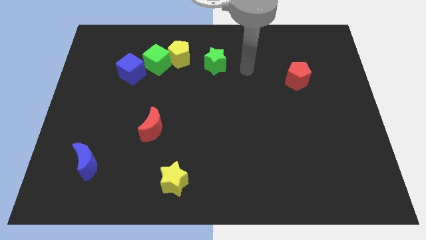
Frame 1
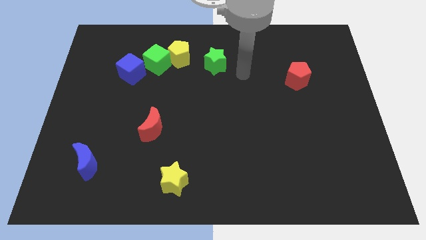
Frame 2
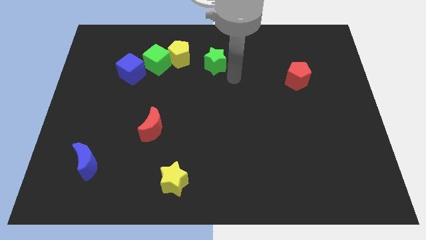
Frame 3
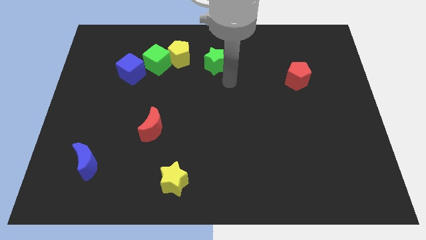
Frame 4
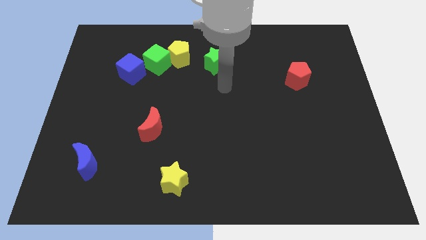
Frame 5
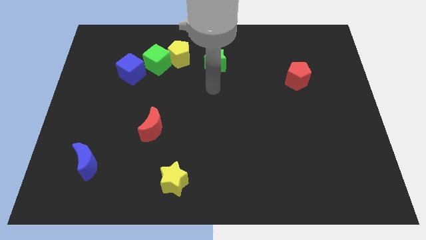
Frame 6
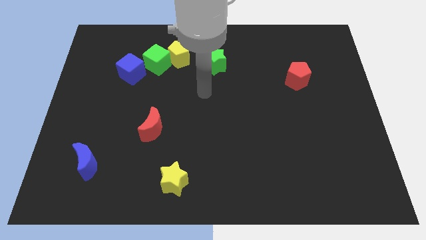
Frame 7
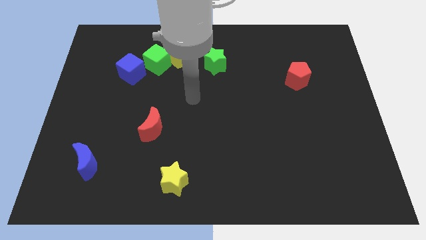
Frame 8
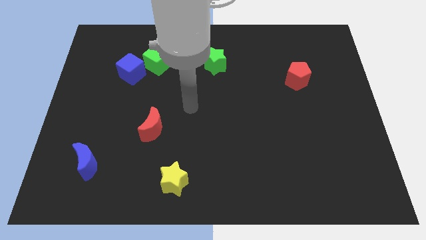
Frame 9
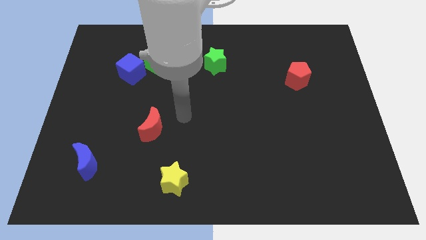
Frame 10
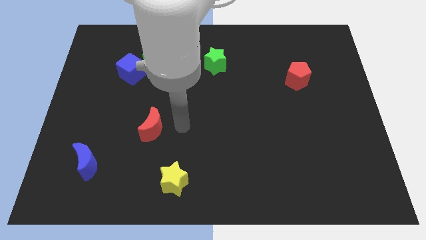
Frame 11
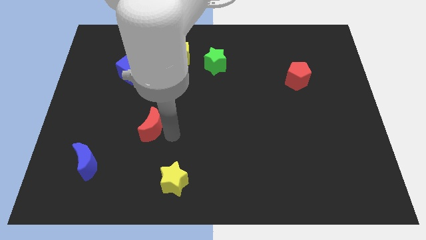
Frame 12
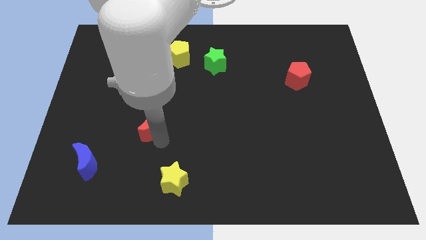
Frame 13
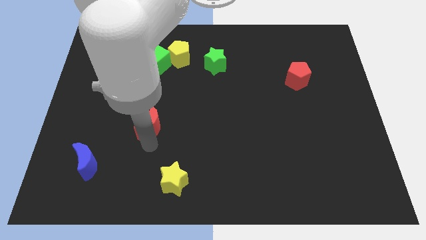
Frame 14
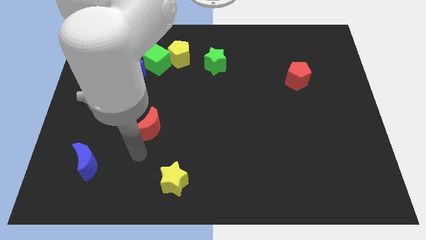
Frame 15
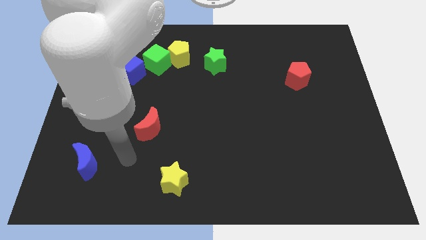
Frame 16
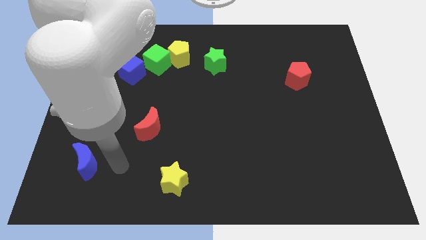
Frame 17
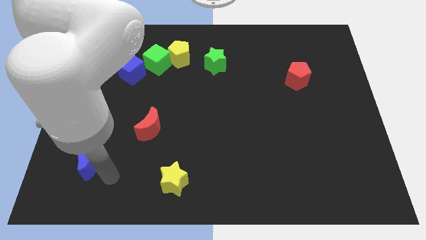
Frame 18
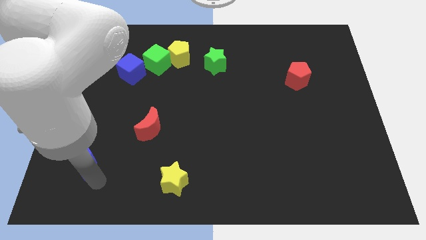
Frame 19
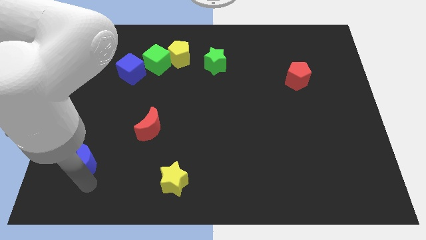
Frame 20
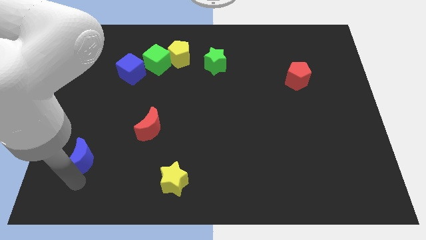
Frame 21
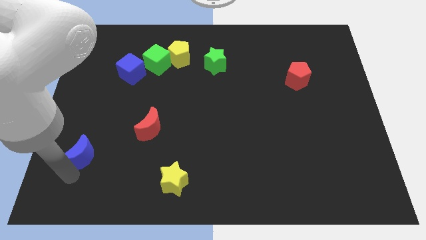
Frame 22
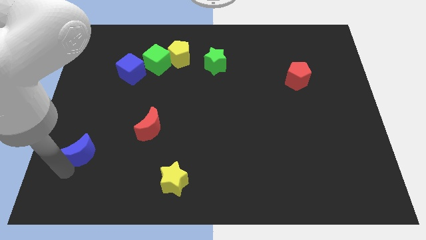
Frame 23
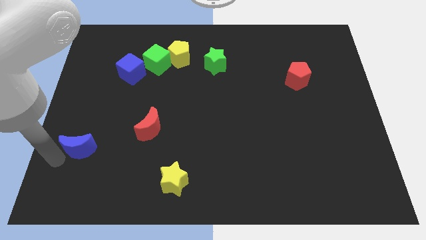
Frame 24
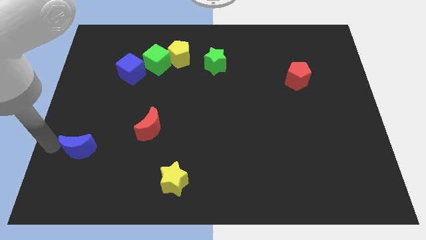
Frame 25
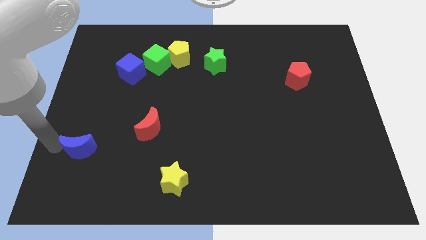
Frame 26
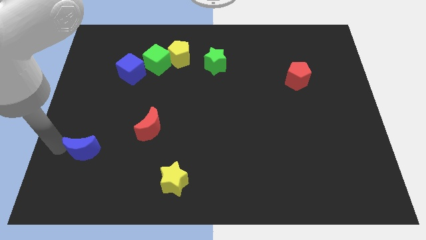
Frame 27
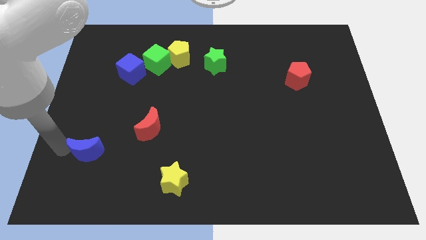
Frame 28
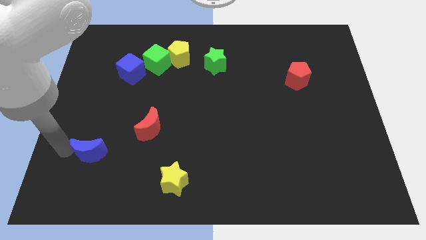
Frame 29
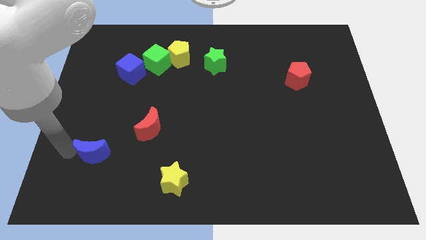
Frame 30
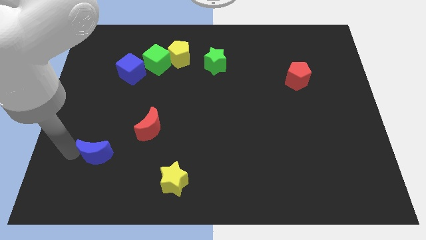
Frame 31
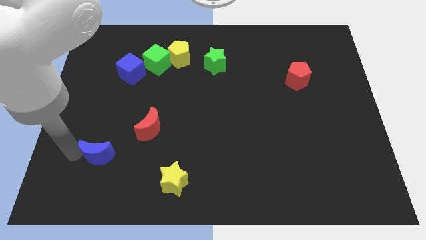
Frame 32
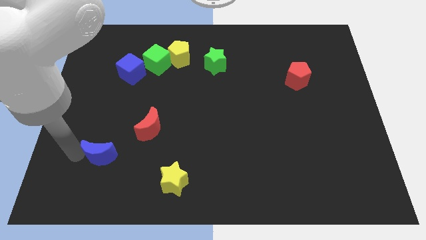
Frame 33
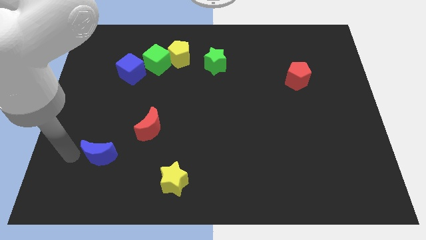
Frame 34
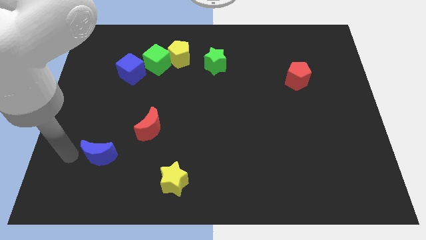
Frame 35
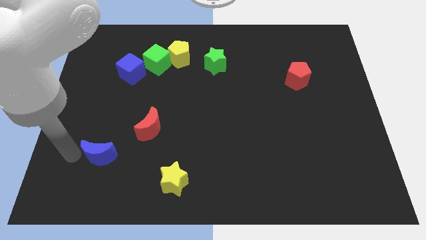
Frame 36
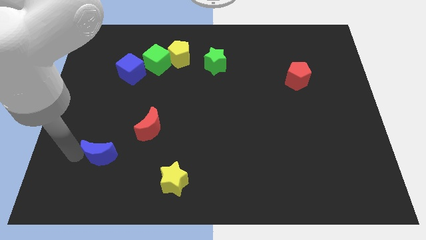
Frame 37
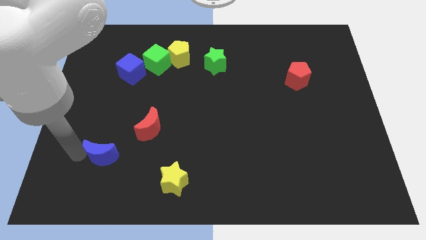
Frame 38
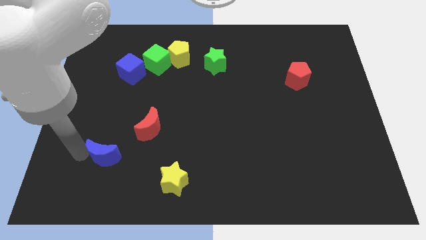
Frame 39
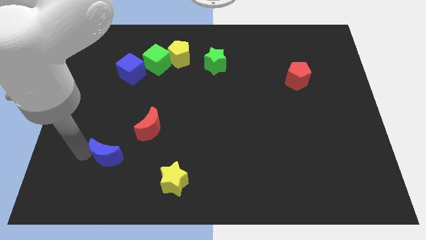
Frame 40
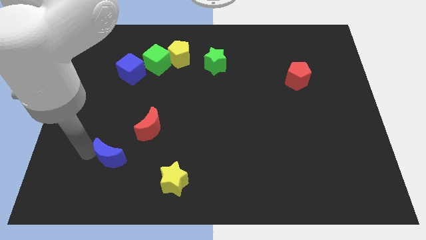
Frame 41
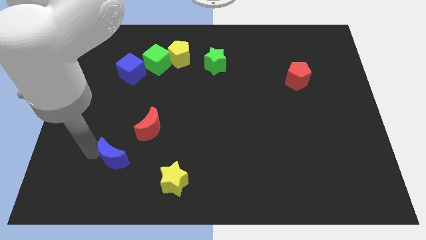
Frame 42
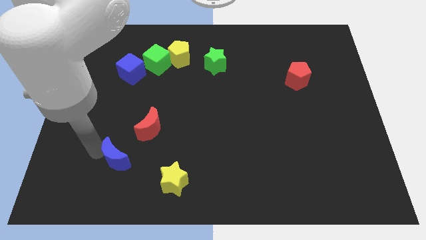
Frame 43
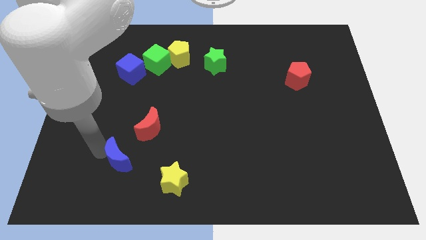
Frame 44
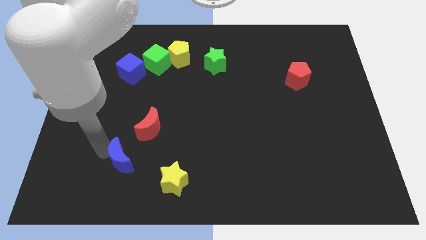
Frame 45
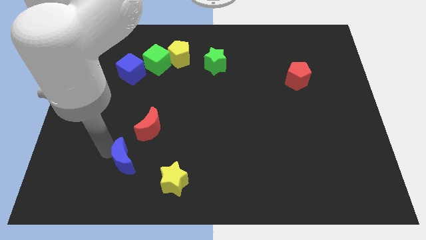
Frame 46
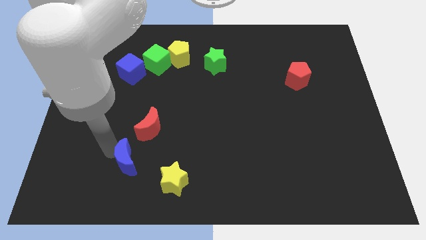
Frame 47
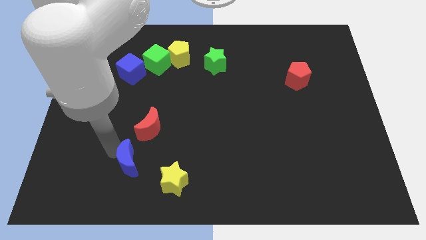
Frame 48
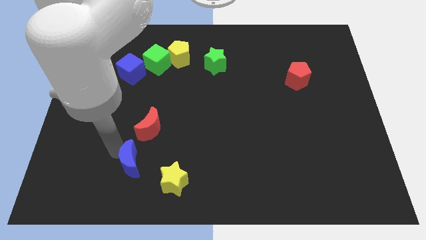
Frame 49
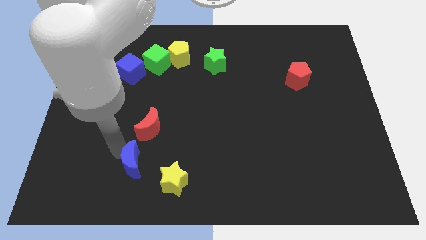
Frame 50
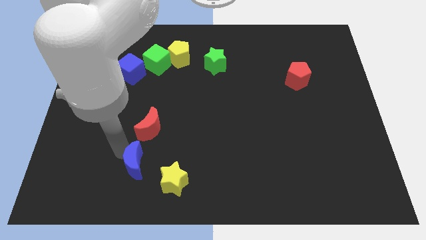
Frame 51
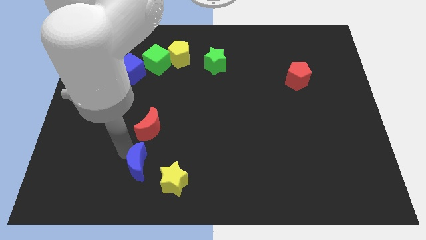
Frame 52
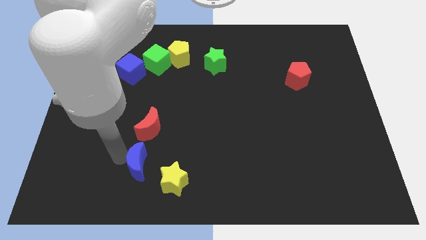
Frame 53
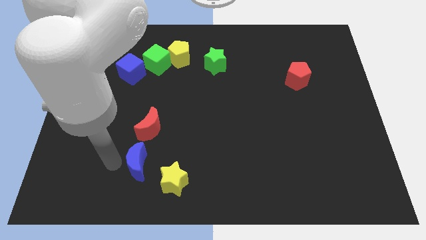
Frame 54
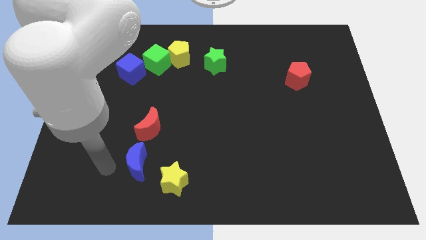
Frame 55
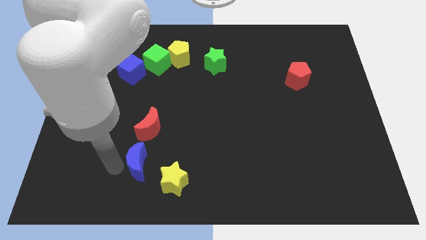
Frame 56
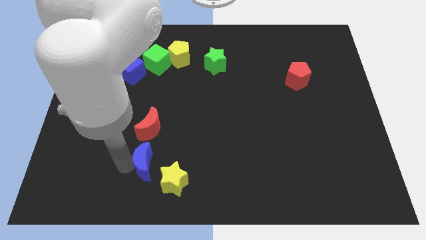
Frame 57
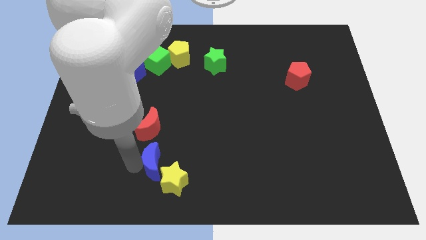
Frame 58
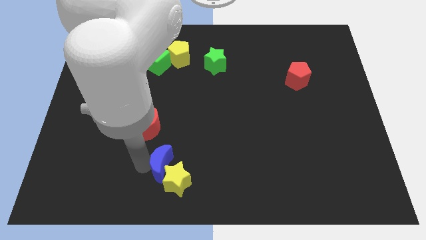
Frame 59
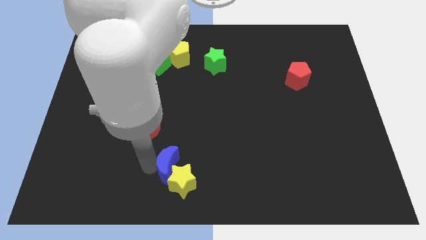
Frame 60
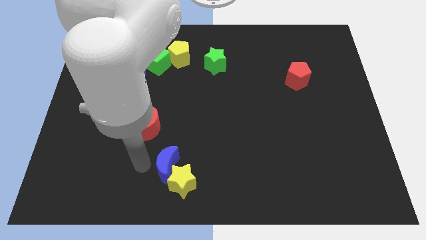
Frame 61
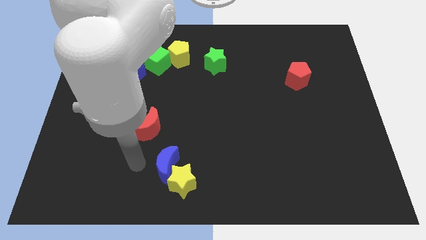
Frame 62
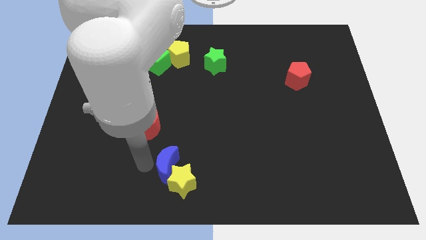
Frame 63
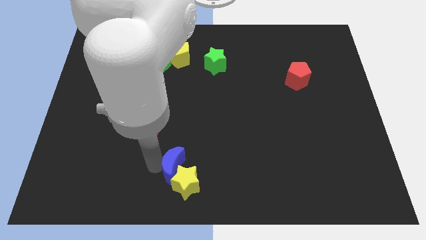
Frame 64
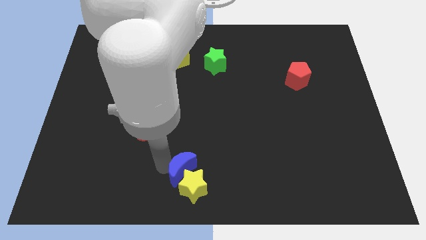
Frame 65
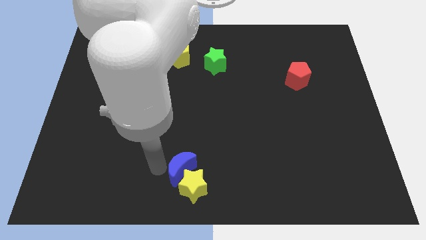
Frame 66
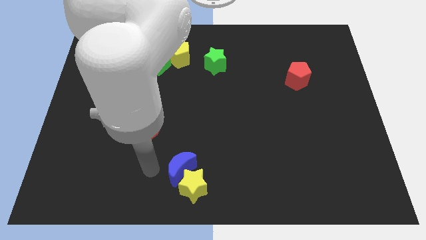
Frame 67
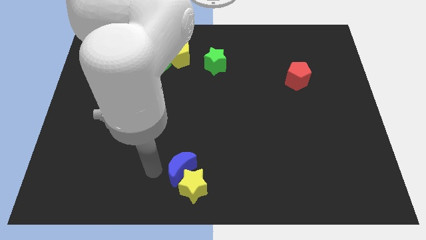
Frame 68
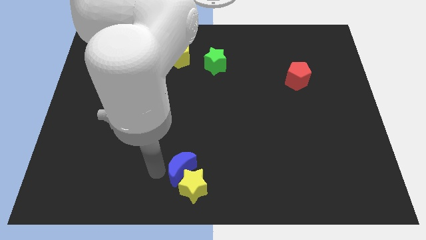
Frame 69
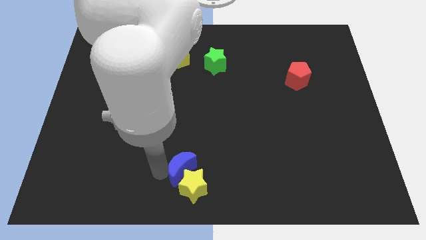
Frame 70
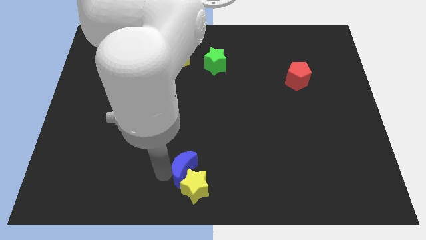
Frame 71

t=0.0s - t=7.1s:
push the blue moon to the right

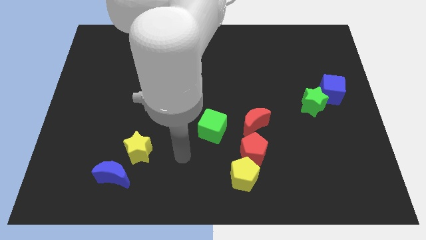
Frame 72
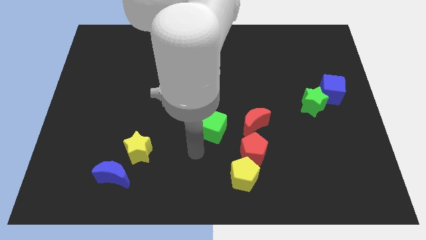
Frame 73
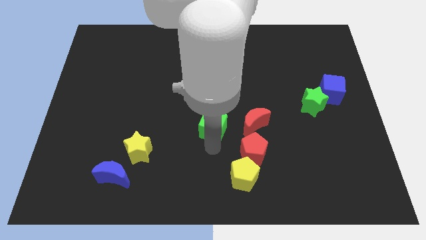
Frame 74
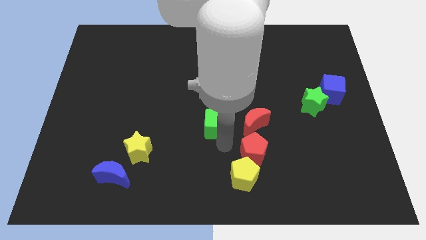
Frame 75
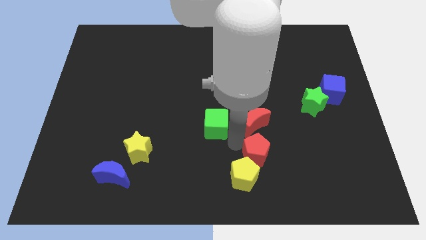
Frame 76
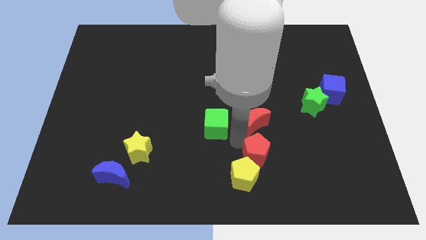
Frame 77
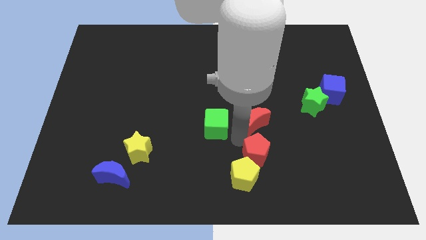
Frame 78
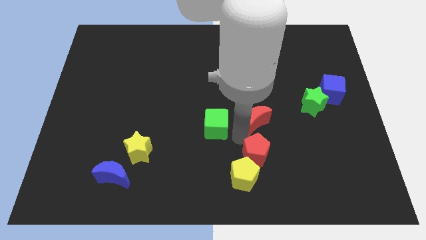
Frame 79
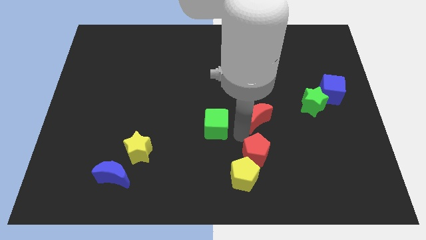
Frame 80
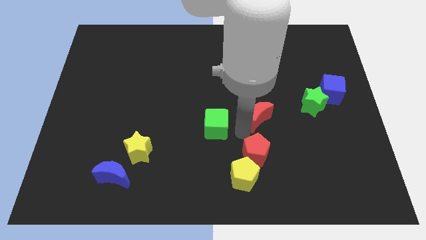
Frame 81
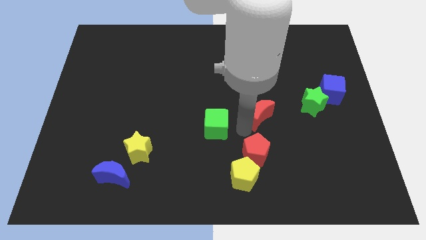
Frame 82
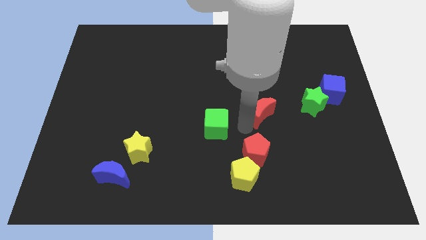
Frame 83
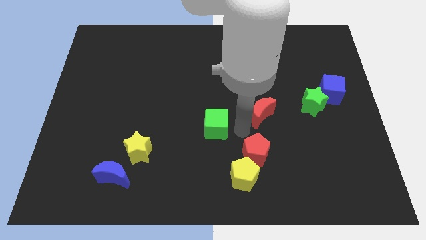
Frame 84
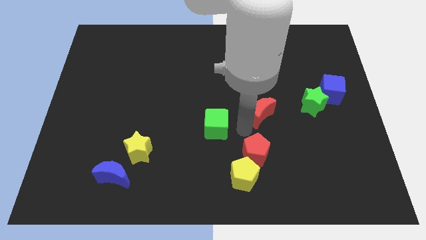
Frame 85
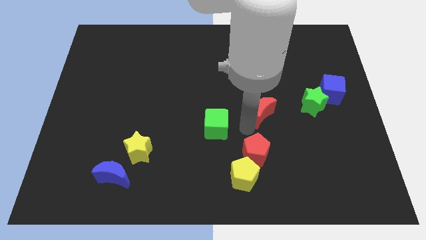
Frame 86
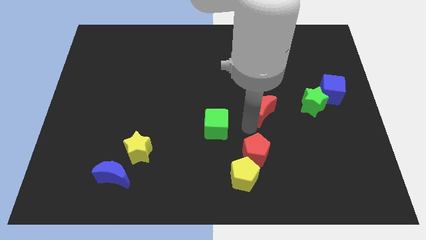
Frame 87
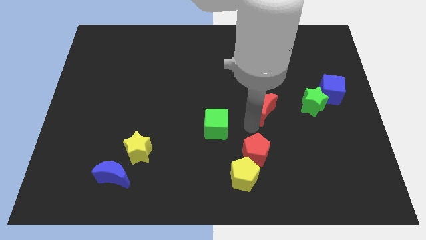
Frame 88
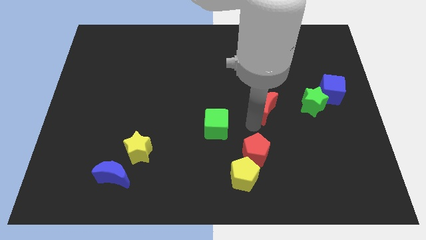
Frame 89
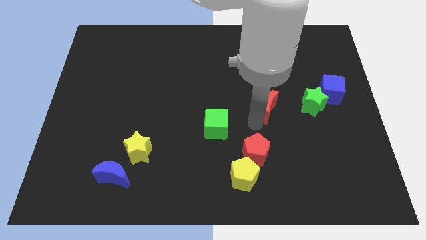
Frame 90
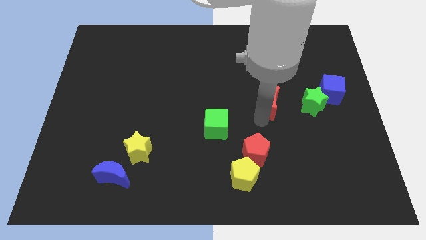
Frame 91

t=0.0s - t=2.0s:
slightly push the red moon upwards and then to the right
